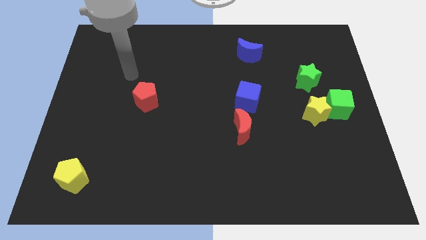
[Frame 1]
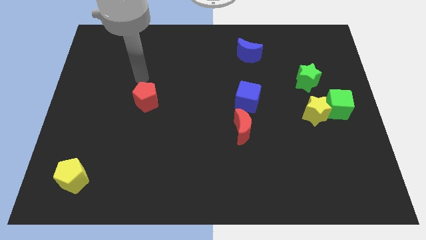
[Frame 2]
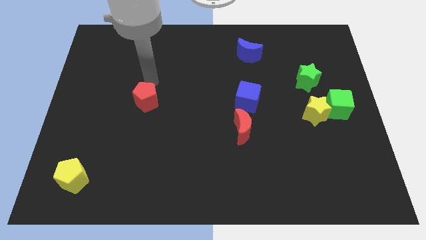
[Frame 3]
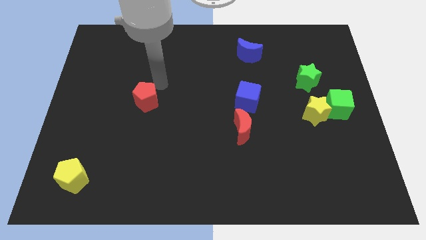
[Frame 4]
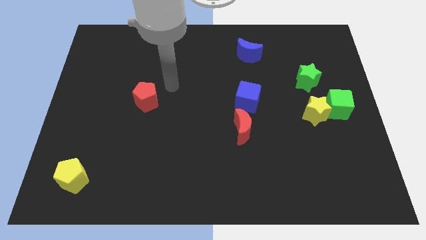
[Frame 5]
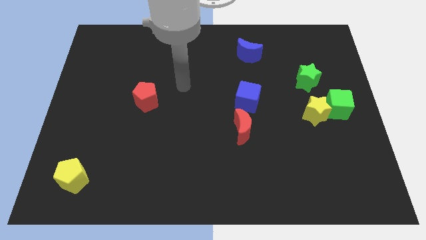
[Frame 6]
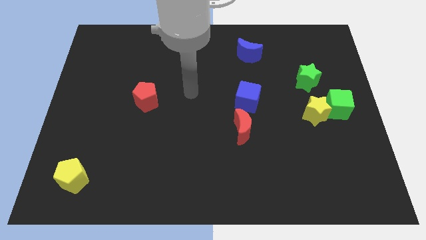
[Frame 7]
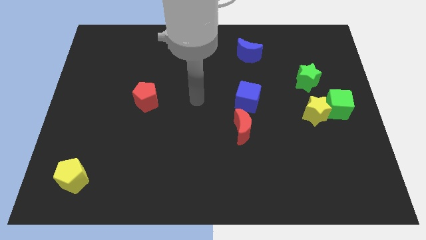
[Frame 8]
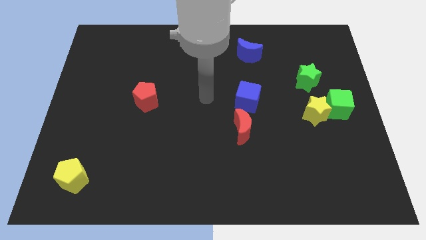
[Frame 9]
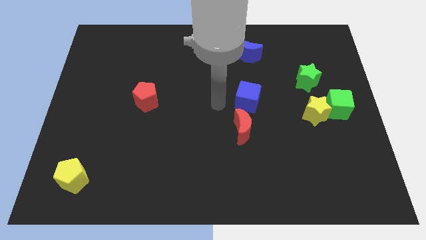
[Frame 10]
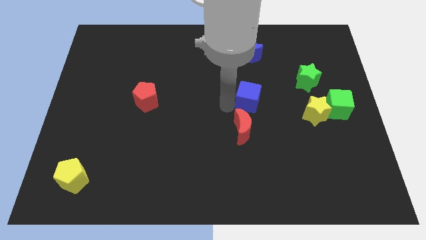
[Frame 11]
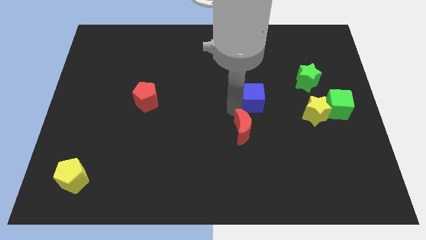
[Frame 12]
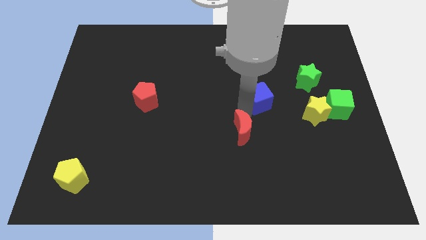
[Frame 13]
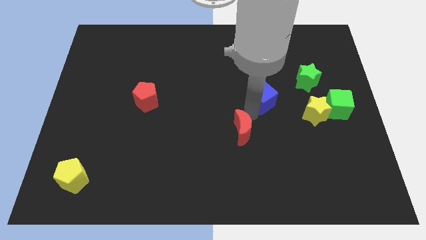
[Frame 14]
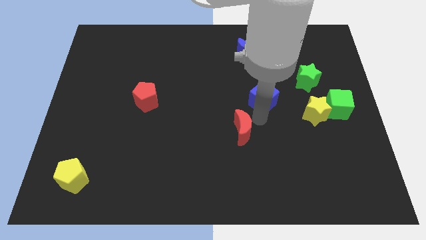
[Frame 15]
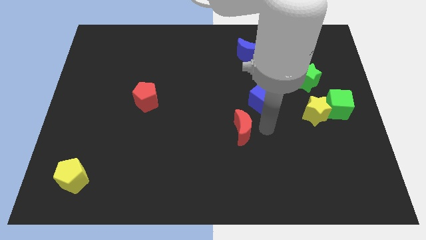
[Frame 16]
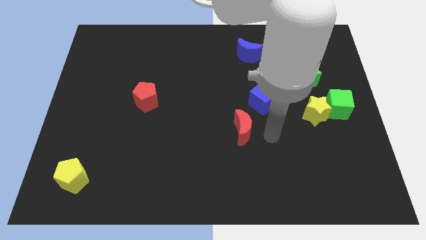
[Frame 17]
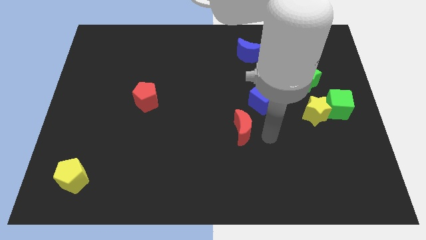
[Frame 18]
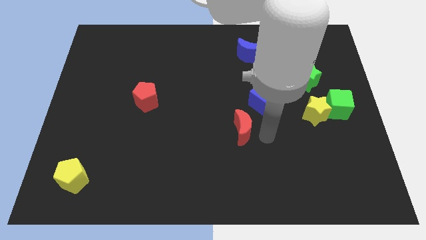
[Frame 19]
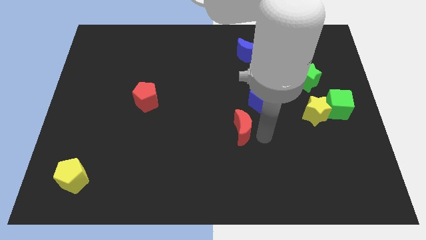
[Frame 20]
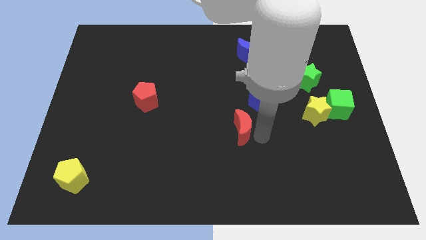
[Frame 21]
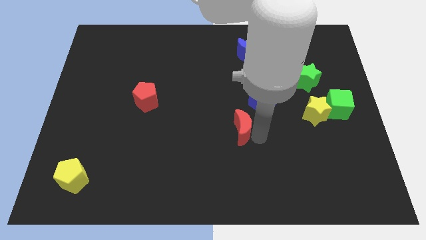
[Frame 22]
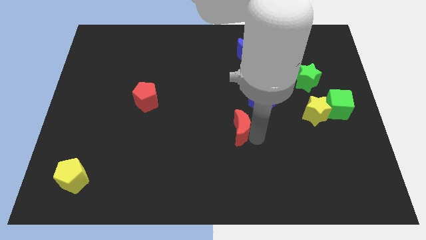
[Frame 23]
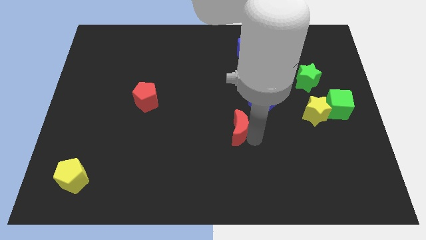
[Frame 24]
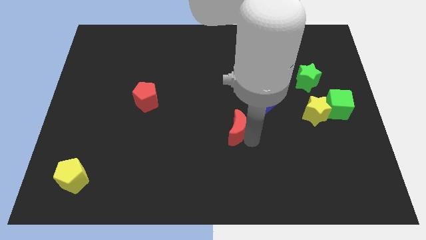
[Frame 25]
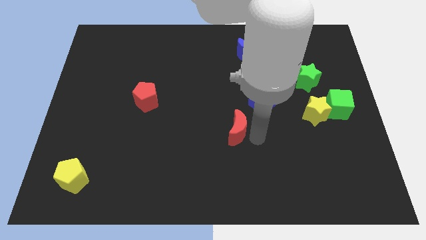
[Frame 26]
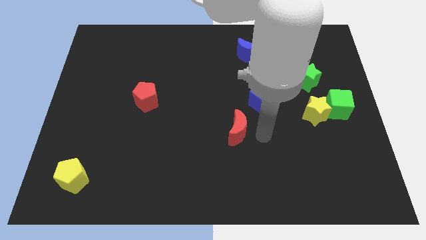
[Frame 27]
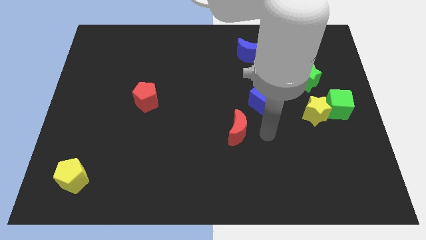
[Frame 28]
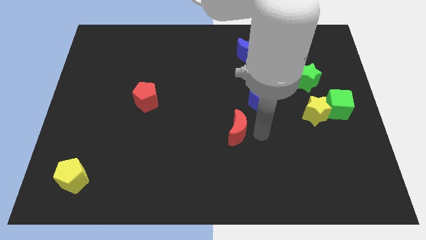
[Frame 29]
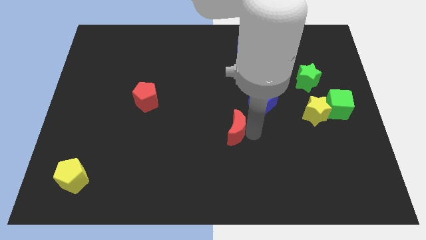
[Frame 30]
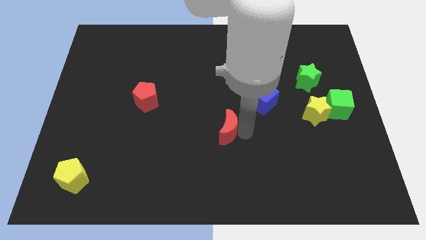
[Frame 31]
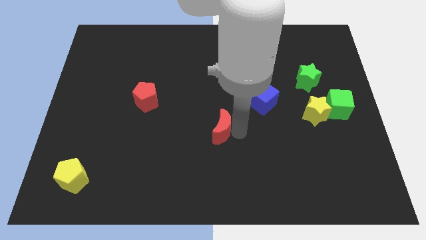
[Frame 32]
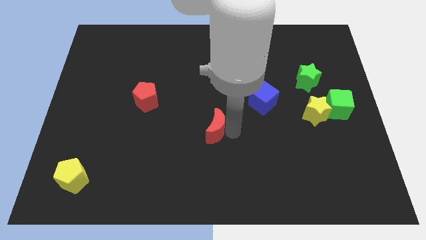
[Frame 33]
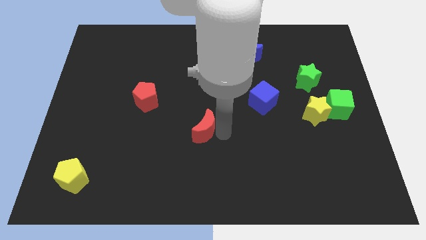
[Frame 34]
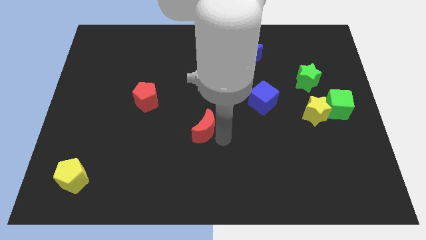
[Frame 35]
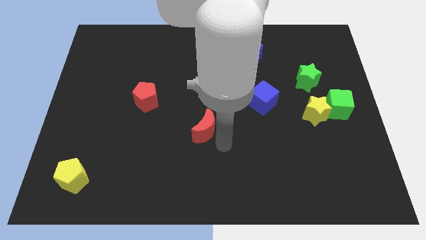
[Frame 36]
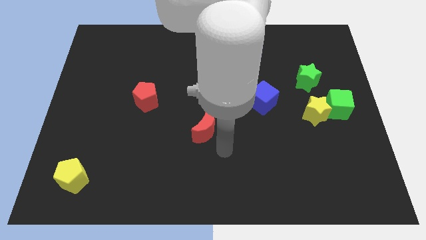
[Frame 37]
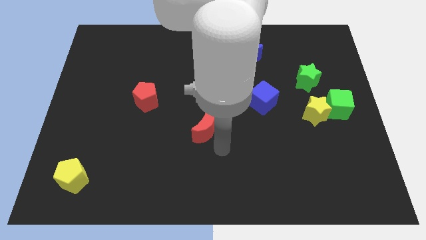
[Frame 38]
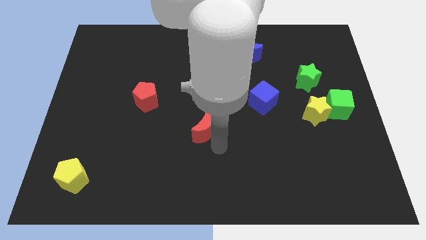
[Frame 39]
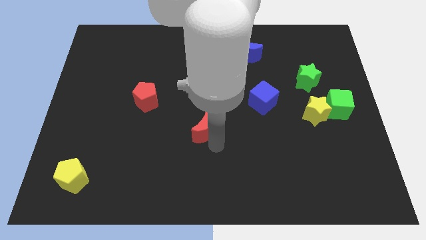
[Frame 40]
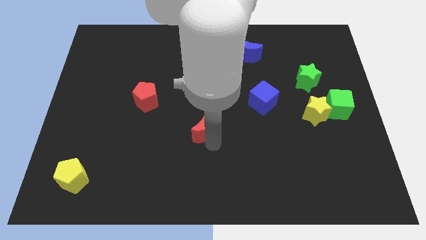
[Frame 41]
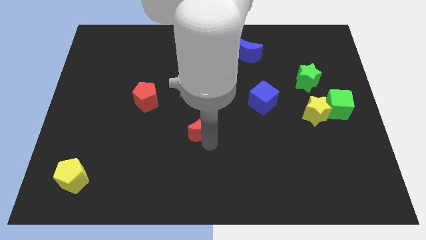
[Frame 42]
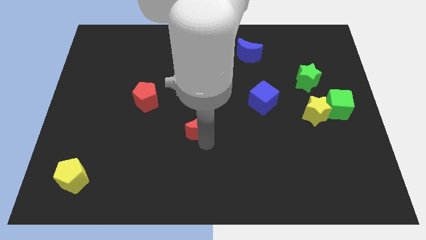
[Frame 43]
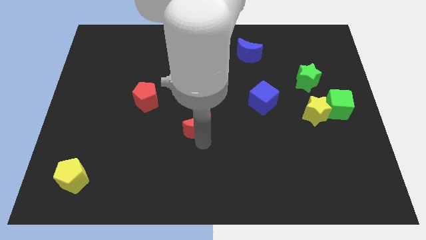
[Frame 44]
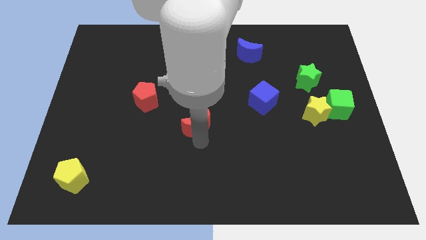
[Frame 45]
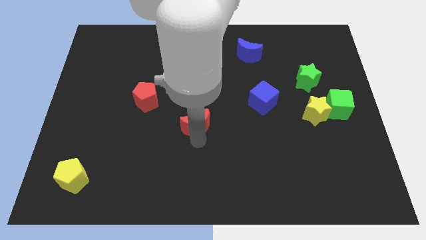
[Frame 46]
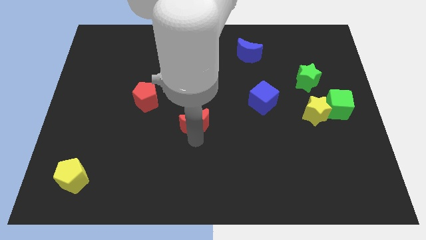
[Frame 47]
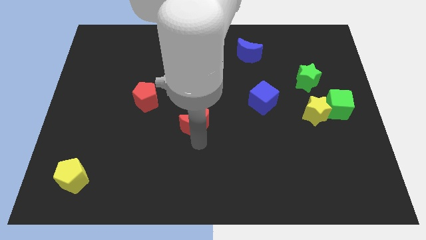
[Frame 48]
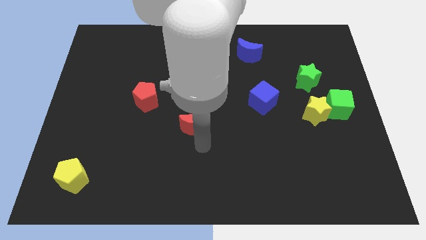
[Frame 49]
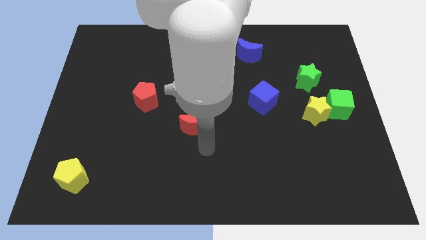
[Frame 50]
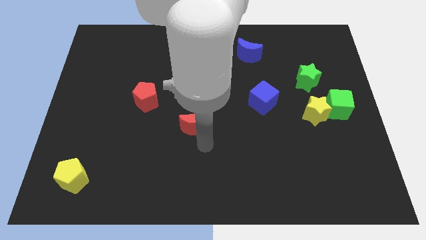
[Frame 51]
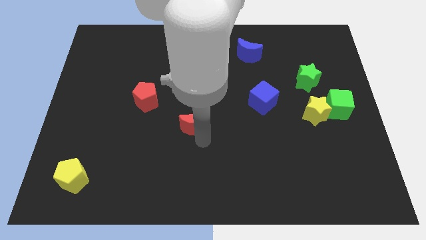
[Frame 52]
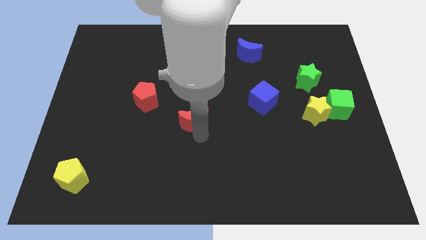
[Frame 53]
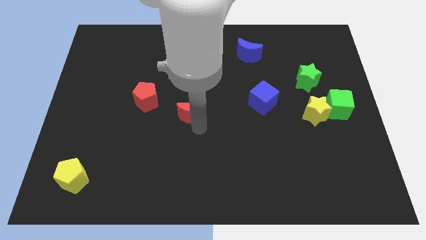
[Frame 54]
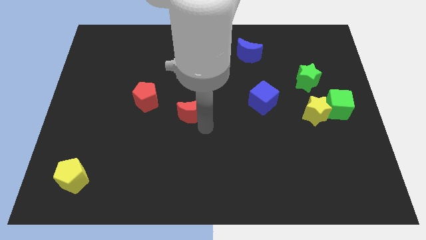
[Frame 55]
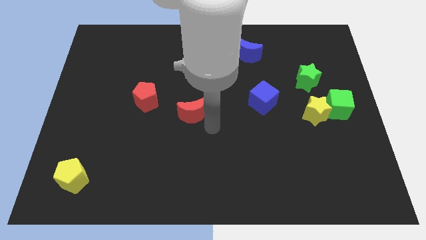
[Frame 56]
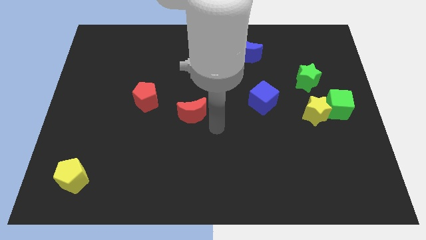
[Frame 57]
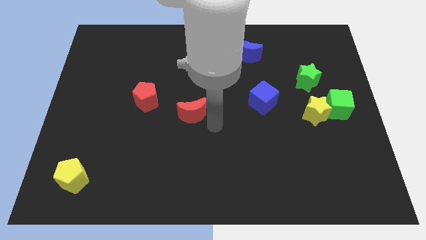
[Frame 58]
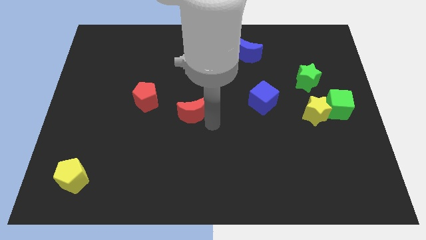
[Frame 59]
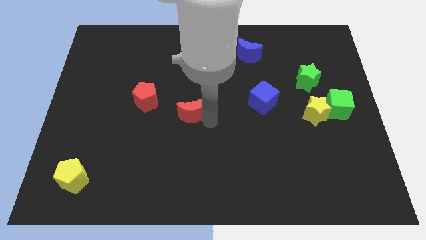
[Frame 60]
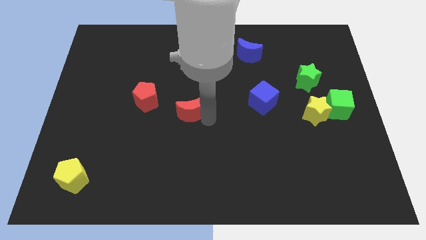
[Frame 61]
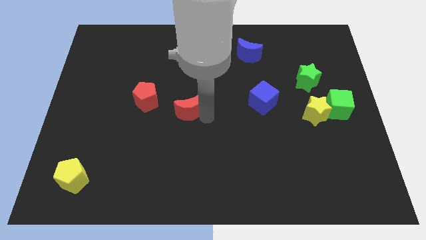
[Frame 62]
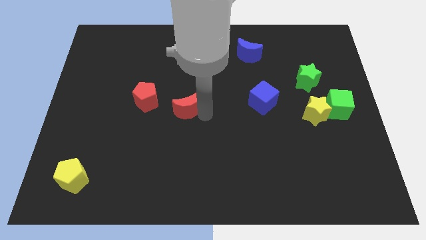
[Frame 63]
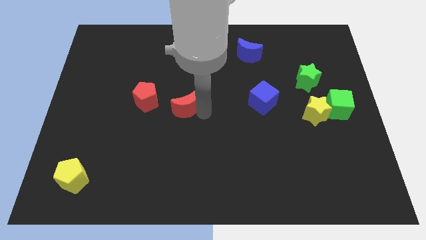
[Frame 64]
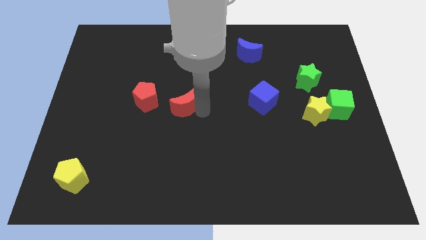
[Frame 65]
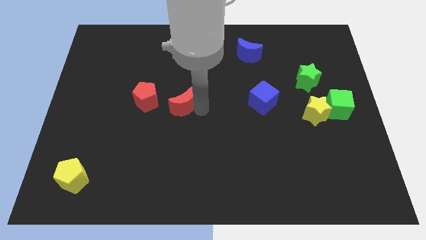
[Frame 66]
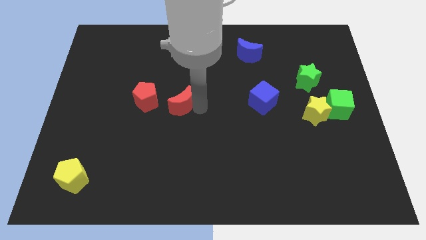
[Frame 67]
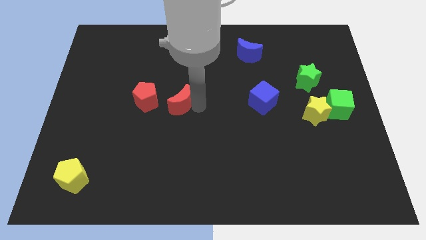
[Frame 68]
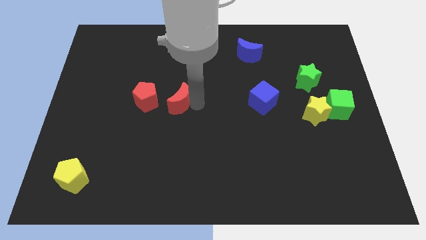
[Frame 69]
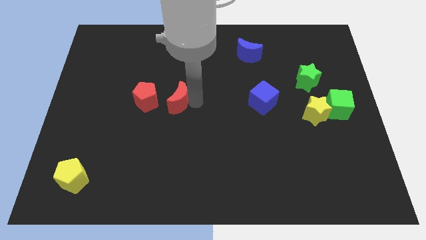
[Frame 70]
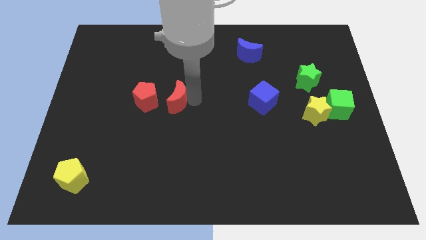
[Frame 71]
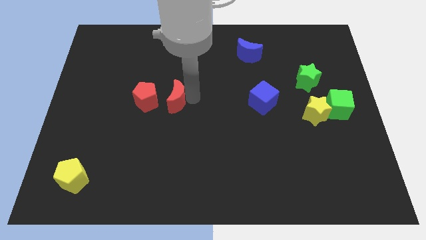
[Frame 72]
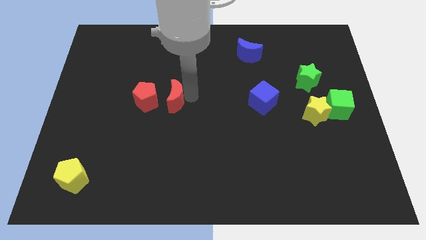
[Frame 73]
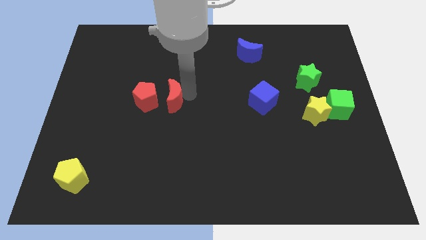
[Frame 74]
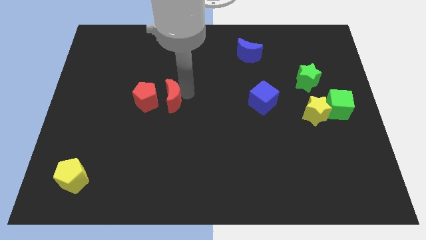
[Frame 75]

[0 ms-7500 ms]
move the red moon next to the red pentagon
